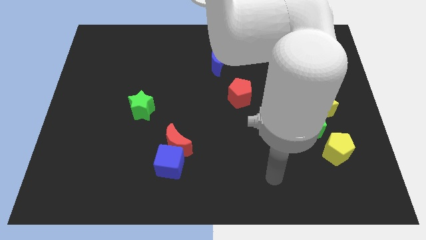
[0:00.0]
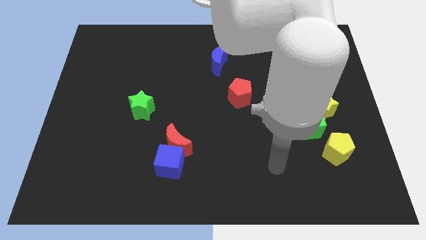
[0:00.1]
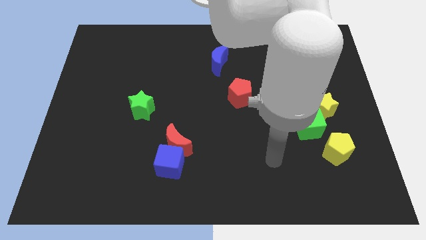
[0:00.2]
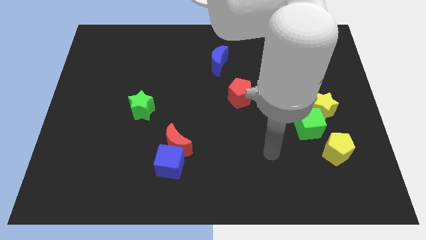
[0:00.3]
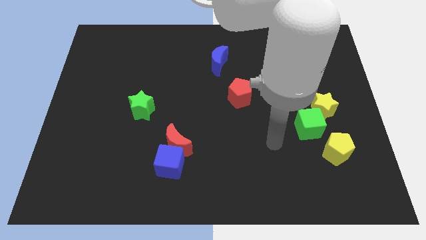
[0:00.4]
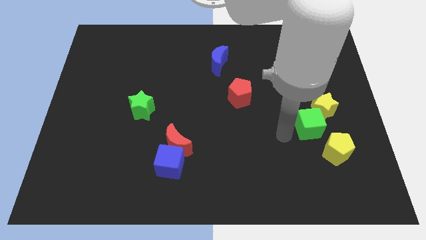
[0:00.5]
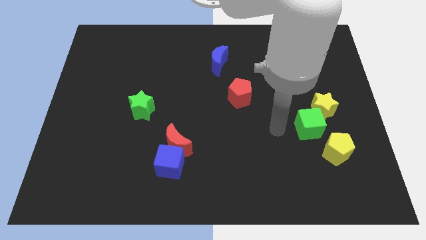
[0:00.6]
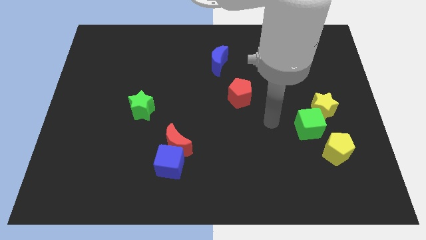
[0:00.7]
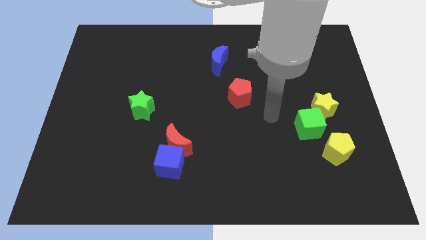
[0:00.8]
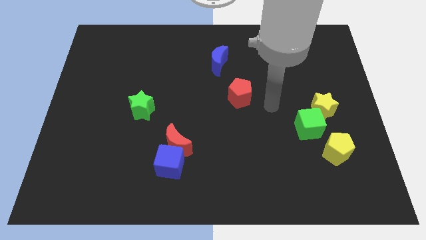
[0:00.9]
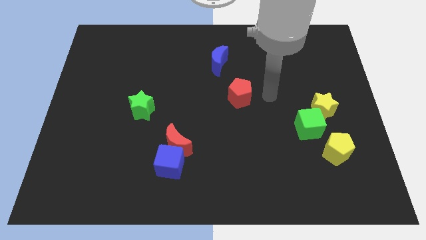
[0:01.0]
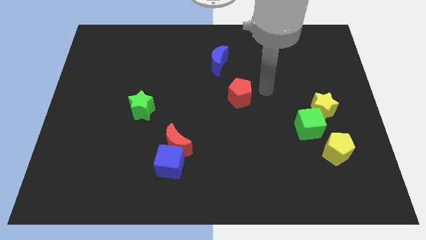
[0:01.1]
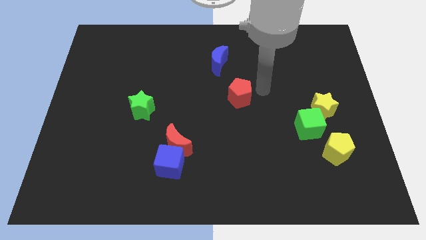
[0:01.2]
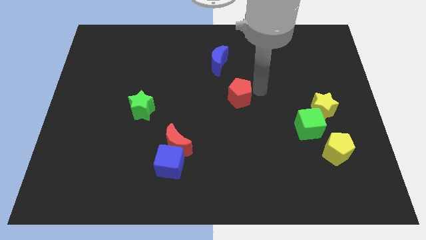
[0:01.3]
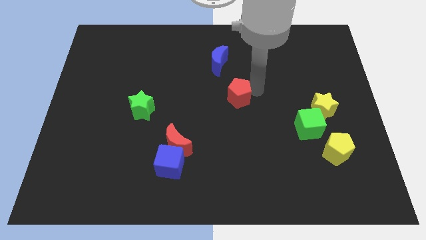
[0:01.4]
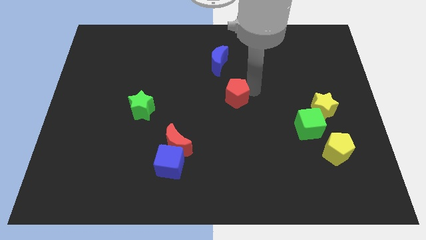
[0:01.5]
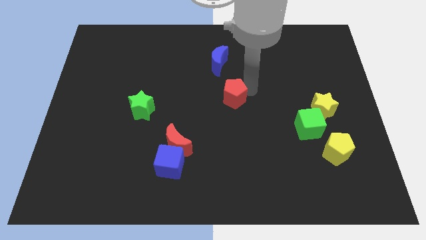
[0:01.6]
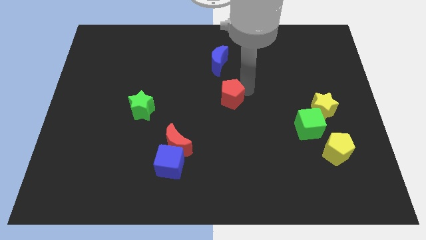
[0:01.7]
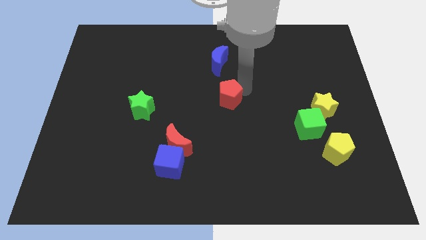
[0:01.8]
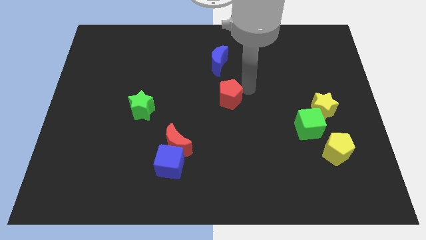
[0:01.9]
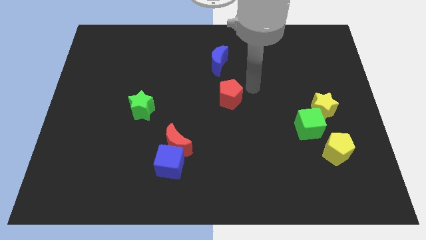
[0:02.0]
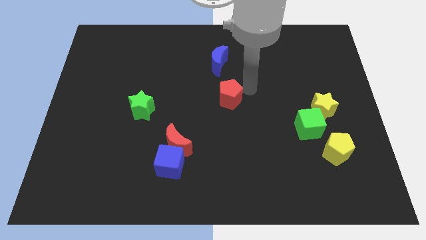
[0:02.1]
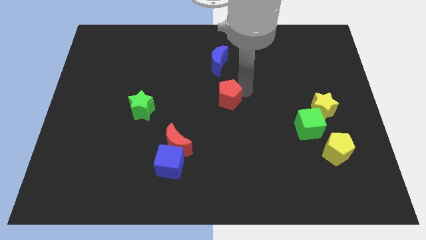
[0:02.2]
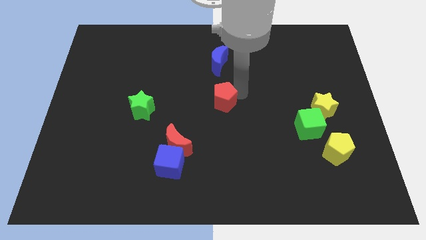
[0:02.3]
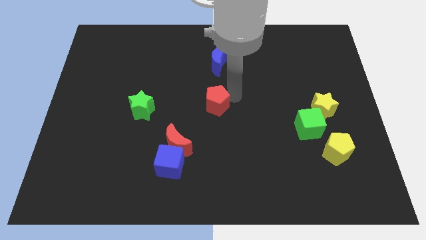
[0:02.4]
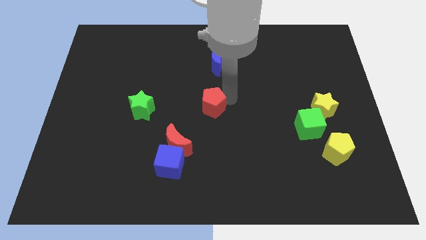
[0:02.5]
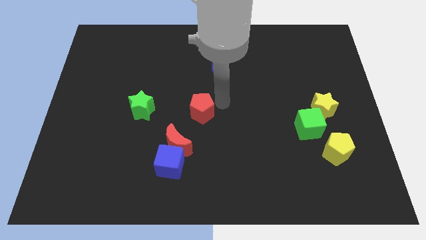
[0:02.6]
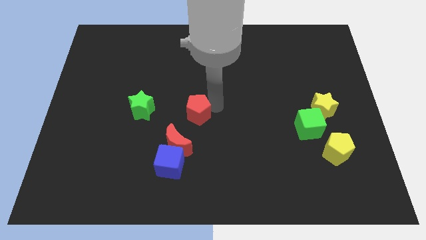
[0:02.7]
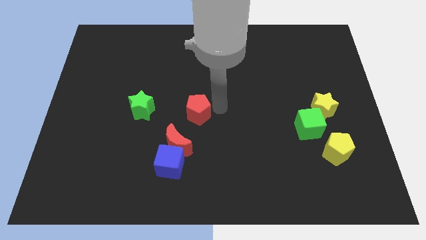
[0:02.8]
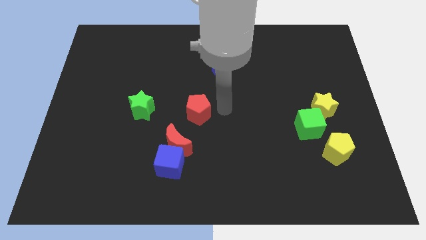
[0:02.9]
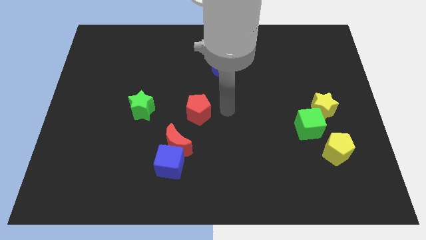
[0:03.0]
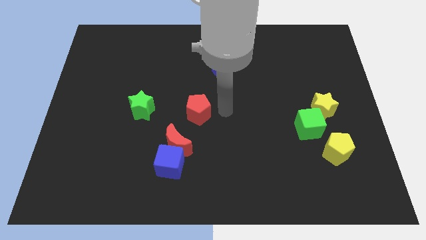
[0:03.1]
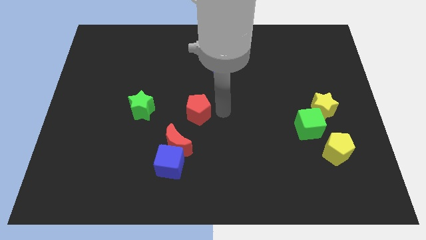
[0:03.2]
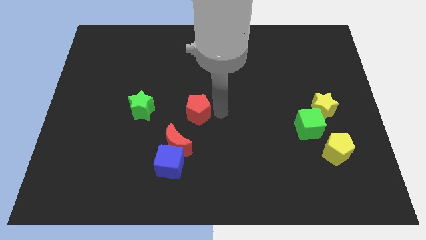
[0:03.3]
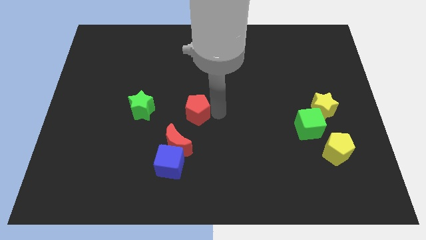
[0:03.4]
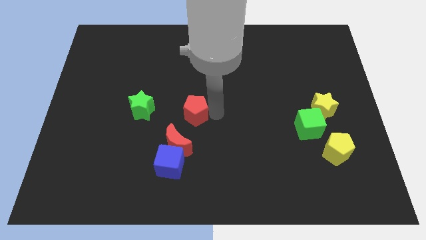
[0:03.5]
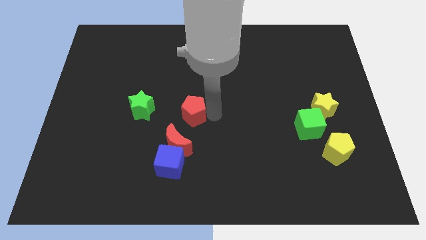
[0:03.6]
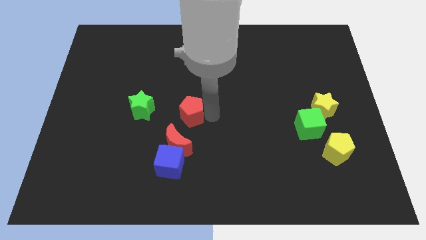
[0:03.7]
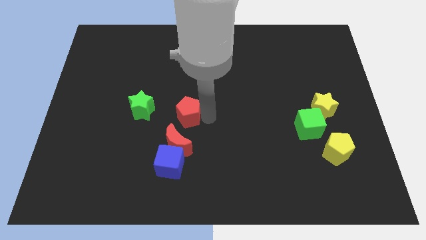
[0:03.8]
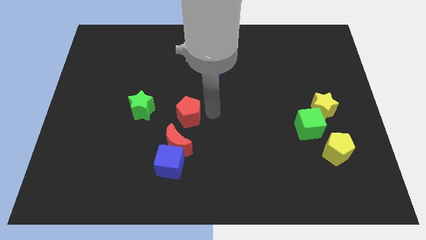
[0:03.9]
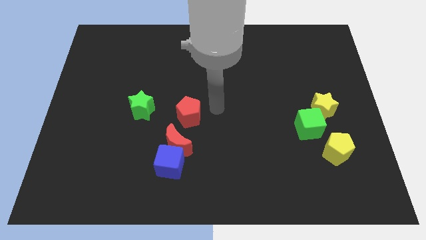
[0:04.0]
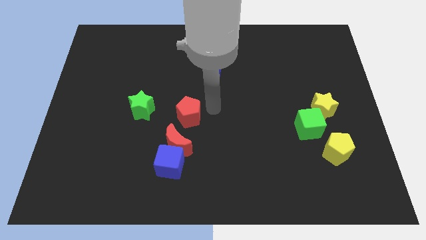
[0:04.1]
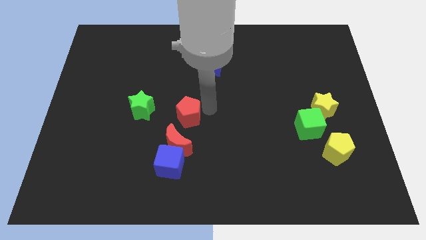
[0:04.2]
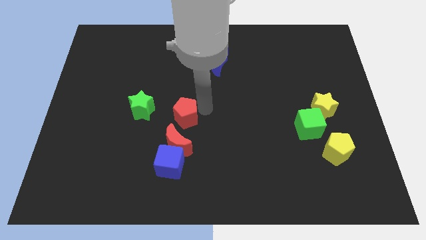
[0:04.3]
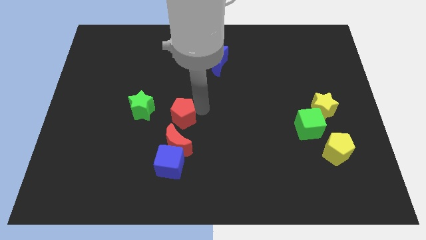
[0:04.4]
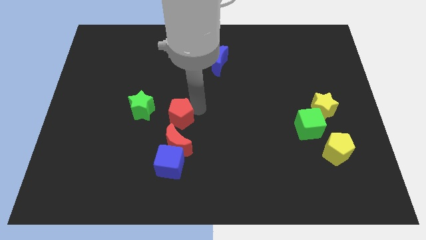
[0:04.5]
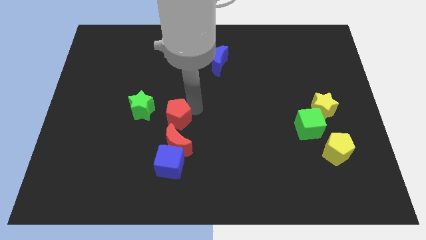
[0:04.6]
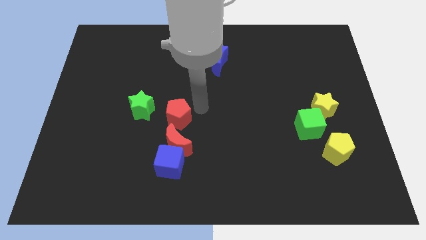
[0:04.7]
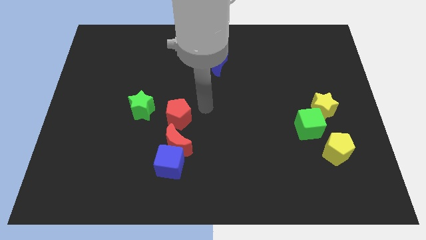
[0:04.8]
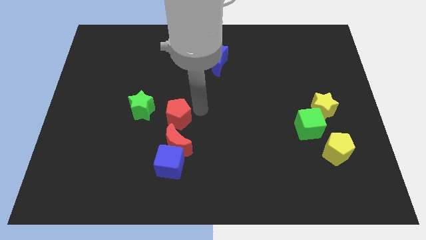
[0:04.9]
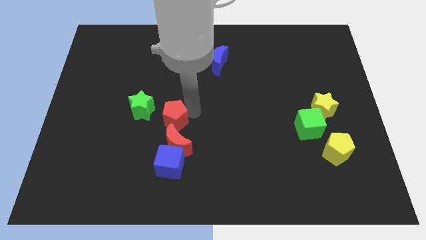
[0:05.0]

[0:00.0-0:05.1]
push the red pentagon to the top left of the red moon
